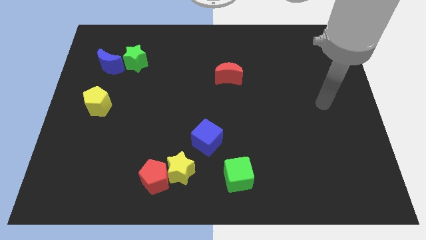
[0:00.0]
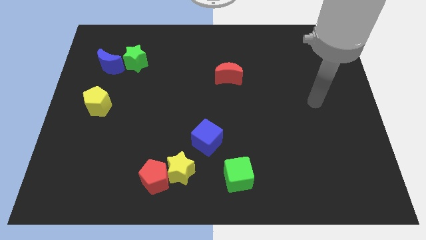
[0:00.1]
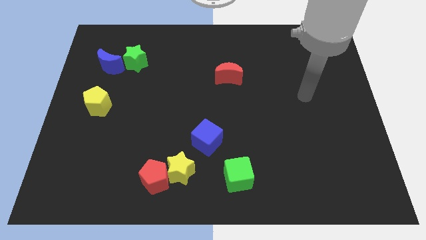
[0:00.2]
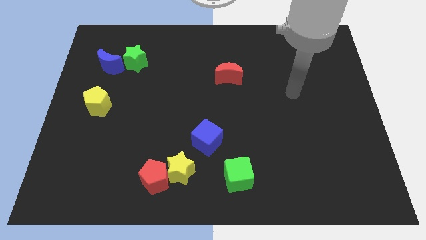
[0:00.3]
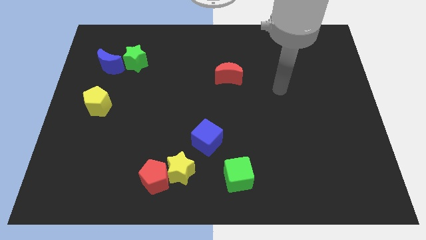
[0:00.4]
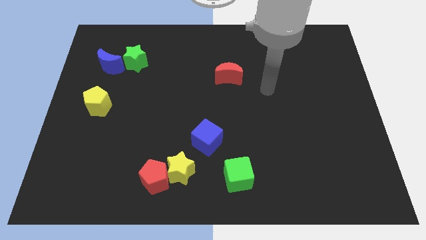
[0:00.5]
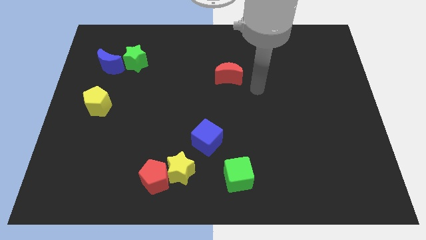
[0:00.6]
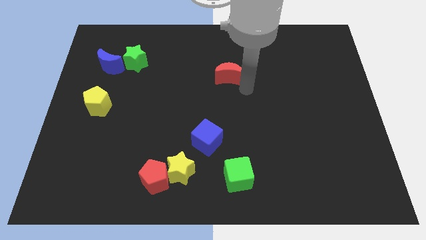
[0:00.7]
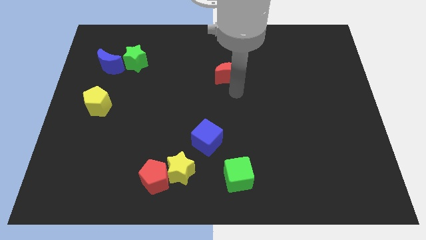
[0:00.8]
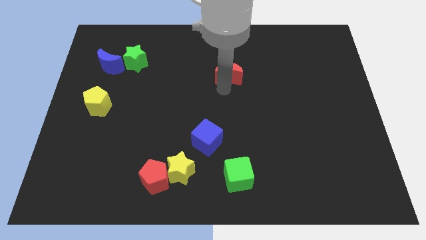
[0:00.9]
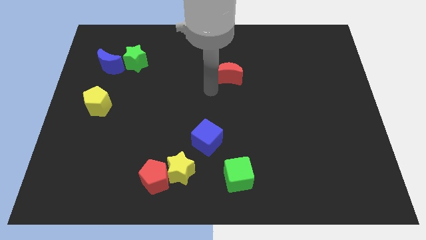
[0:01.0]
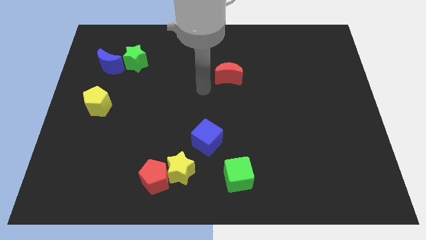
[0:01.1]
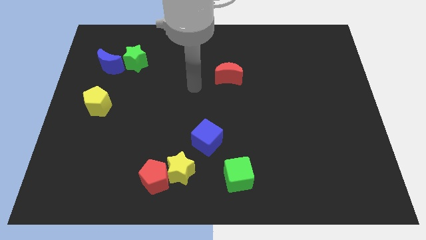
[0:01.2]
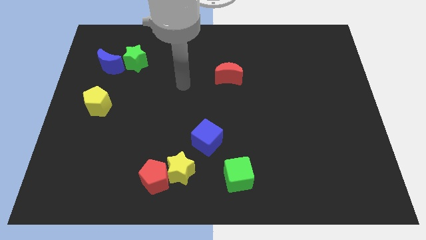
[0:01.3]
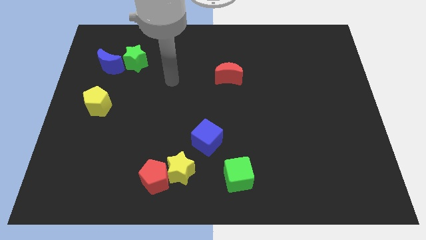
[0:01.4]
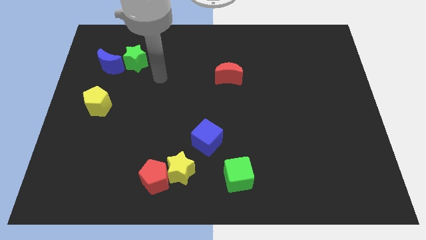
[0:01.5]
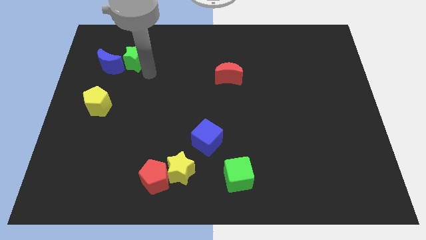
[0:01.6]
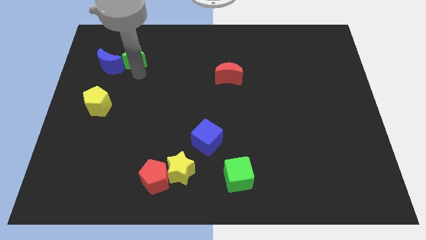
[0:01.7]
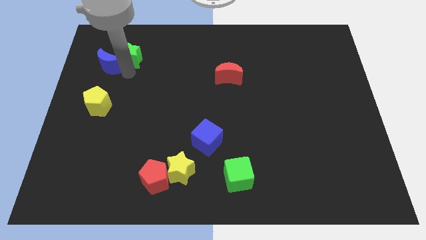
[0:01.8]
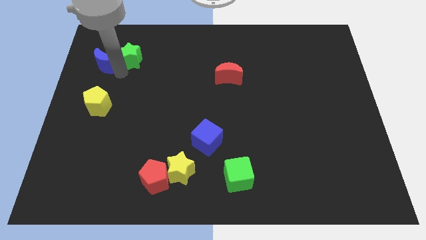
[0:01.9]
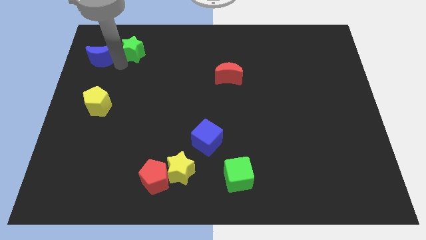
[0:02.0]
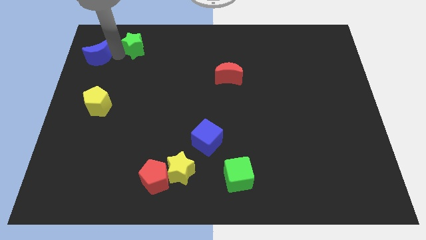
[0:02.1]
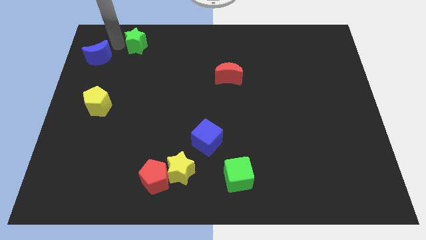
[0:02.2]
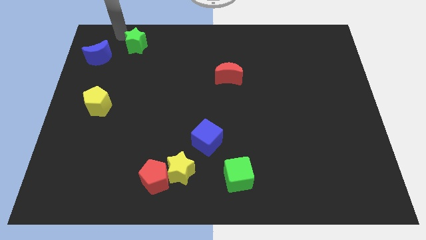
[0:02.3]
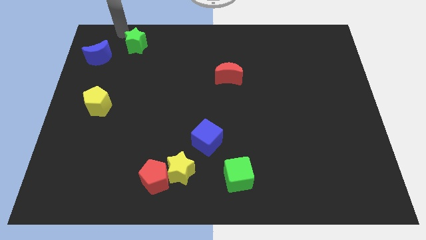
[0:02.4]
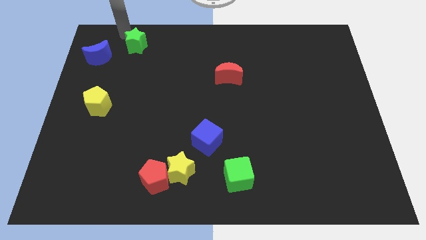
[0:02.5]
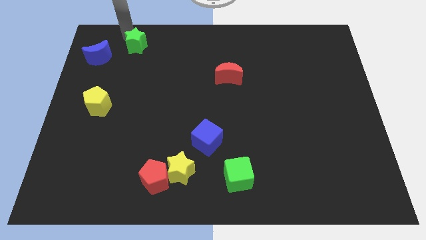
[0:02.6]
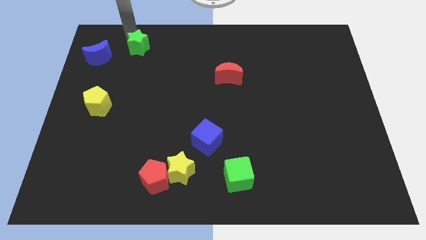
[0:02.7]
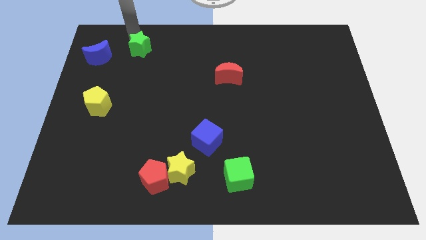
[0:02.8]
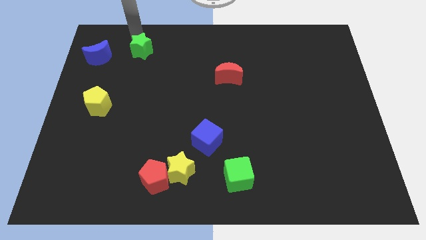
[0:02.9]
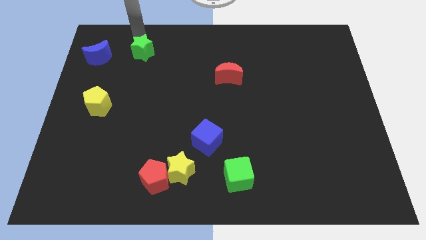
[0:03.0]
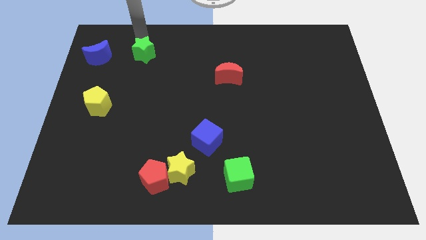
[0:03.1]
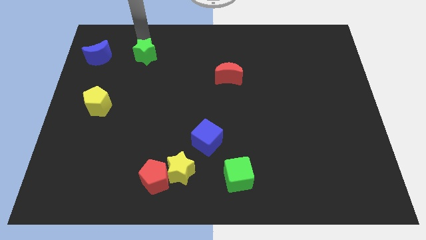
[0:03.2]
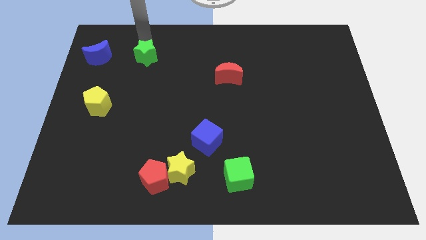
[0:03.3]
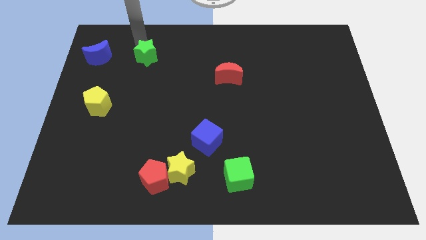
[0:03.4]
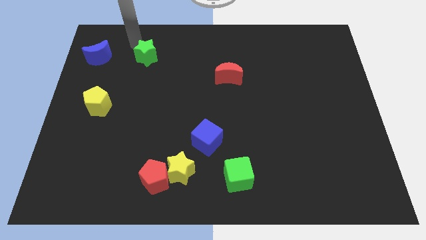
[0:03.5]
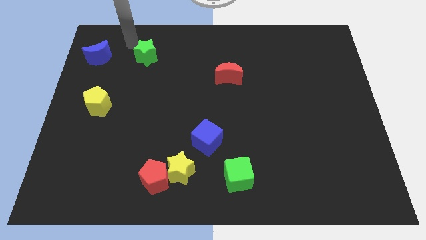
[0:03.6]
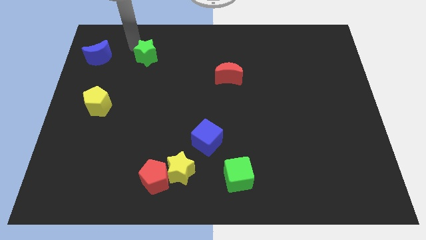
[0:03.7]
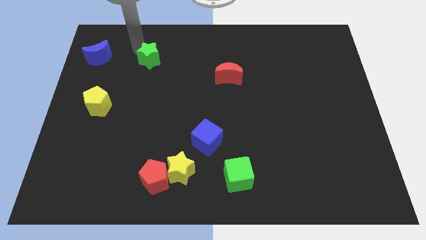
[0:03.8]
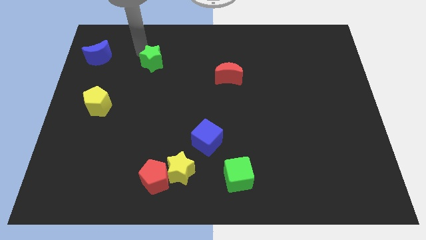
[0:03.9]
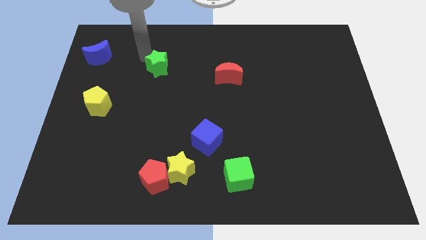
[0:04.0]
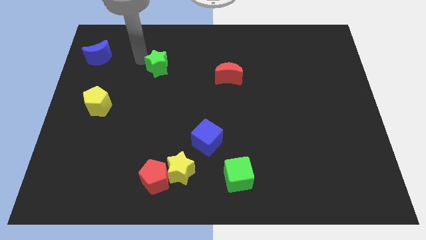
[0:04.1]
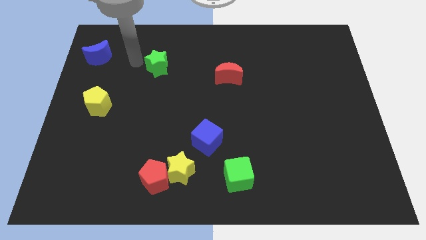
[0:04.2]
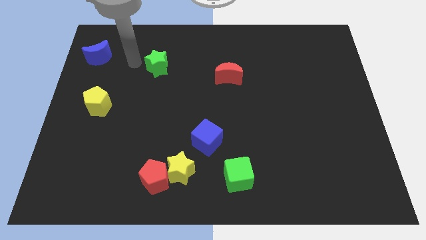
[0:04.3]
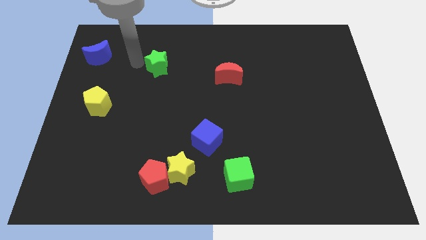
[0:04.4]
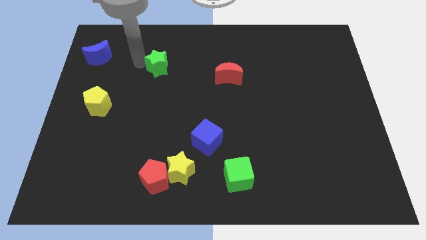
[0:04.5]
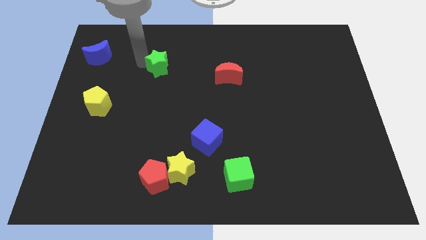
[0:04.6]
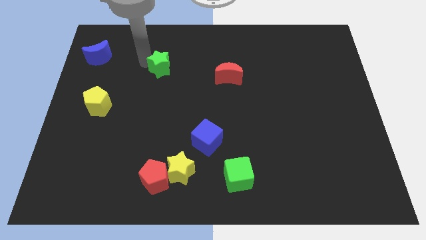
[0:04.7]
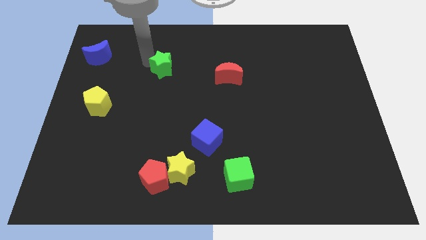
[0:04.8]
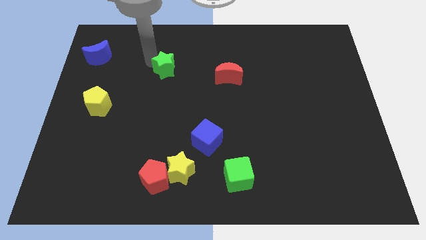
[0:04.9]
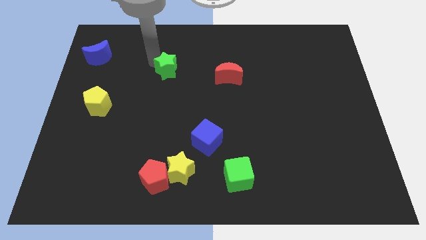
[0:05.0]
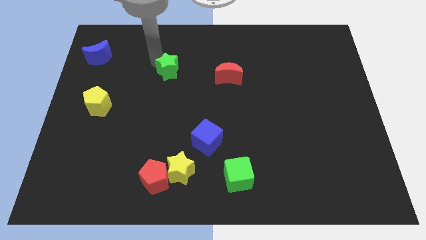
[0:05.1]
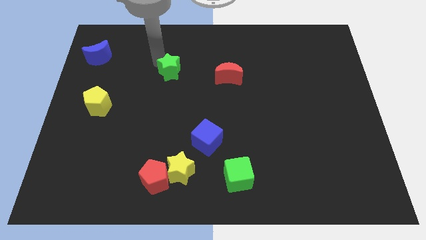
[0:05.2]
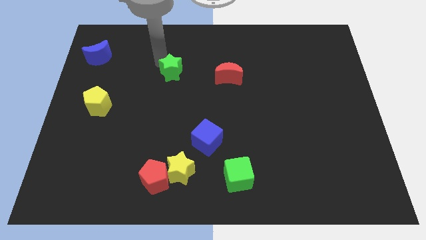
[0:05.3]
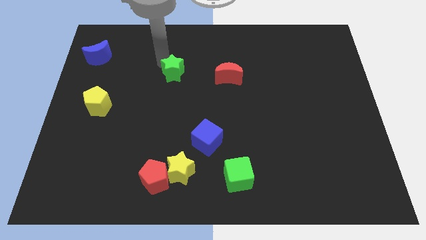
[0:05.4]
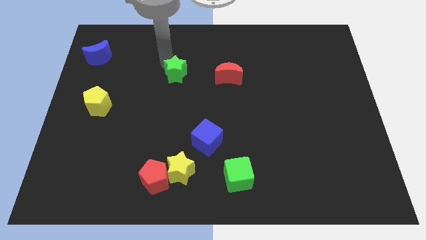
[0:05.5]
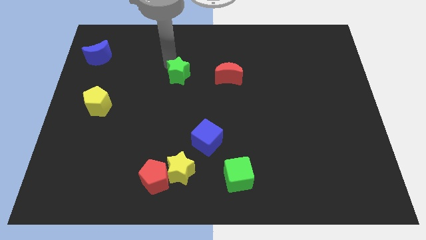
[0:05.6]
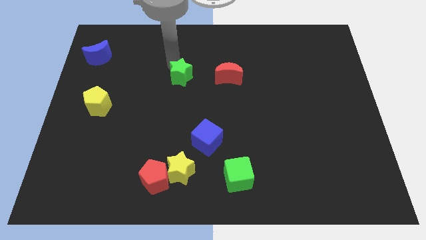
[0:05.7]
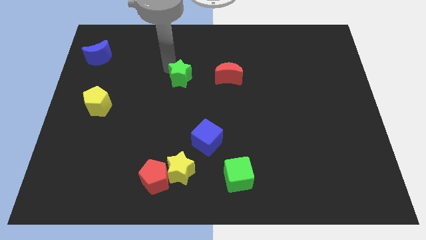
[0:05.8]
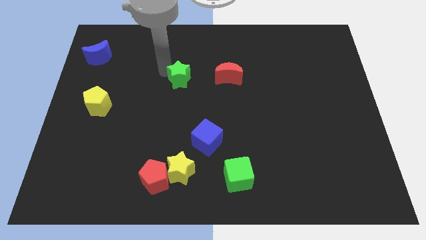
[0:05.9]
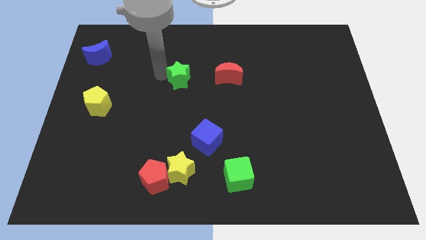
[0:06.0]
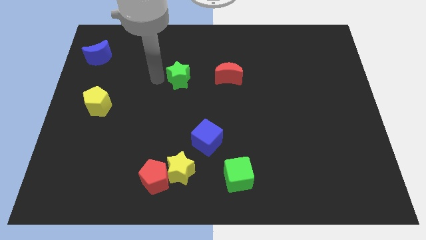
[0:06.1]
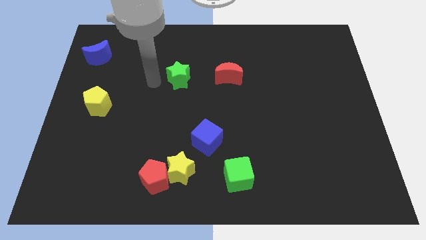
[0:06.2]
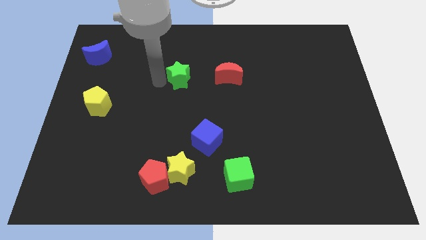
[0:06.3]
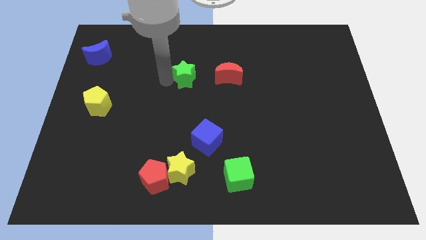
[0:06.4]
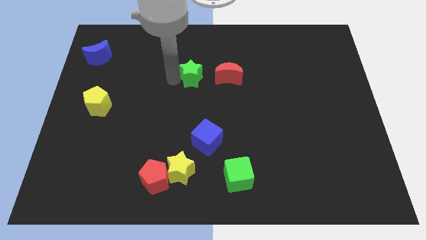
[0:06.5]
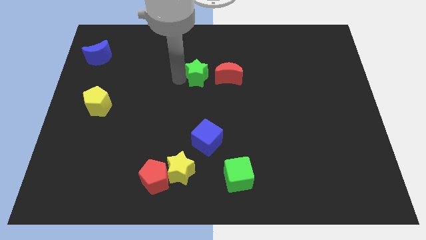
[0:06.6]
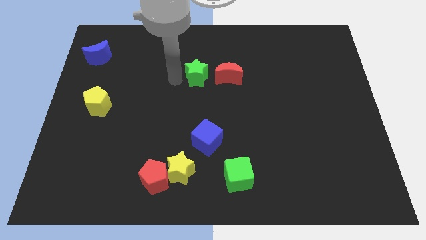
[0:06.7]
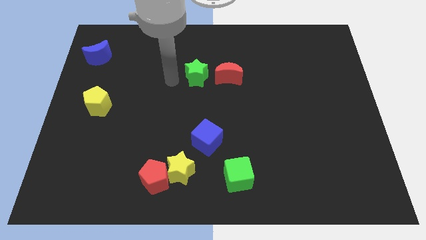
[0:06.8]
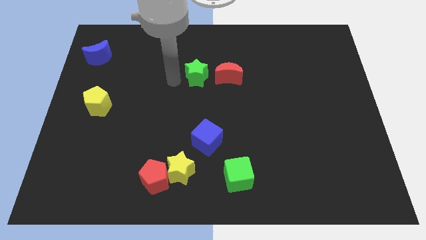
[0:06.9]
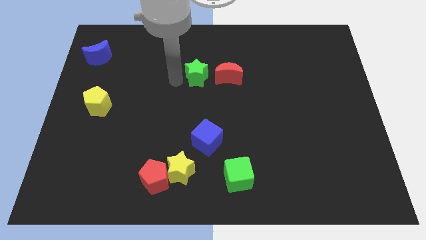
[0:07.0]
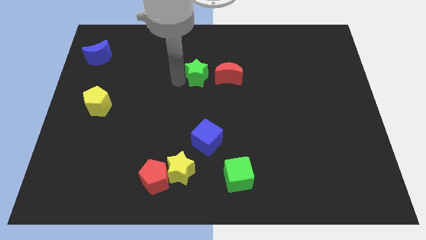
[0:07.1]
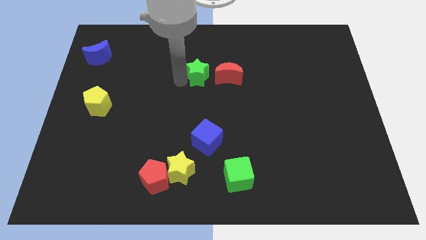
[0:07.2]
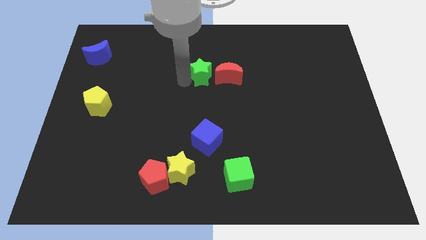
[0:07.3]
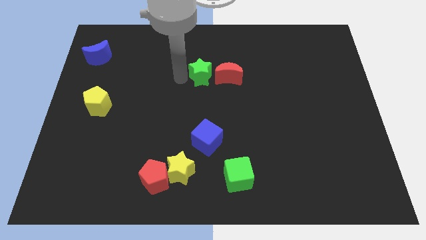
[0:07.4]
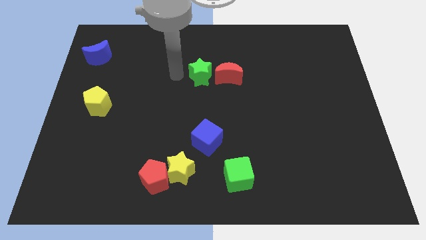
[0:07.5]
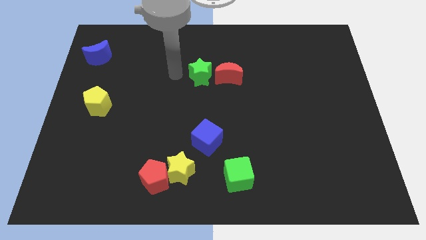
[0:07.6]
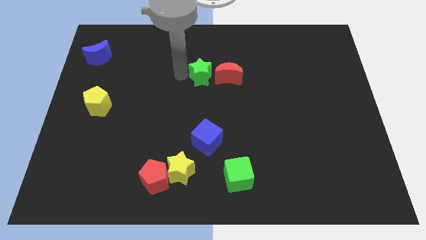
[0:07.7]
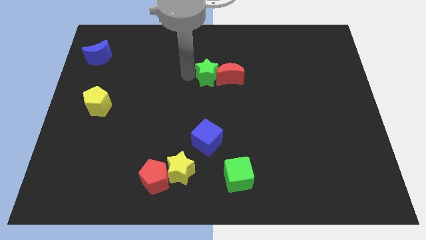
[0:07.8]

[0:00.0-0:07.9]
put the green star to the red moon
